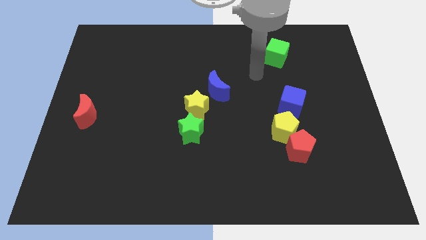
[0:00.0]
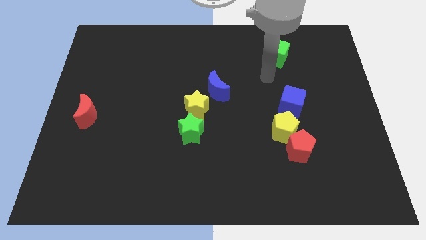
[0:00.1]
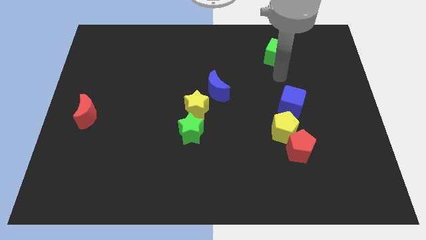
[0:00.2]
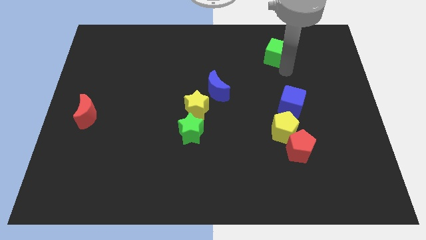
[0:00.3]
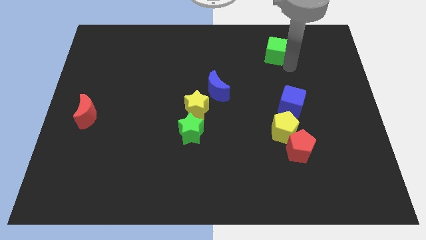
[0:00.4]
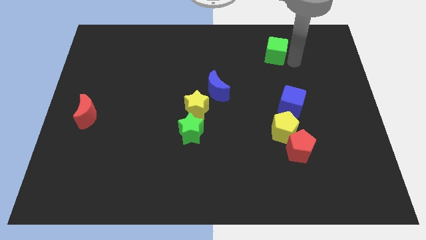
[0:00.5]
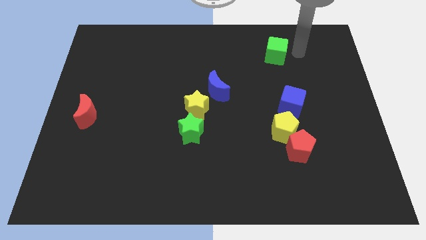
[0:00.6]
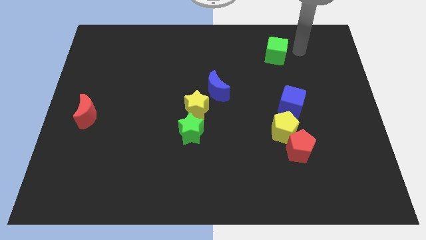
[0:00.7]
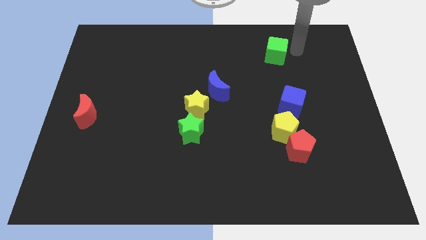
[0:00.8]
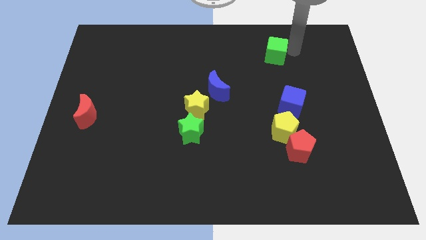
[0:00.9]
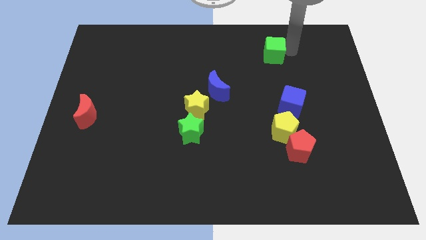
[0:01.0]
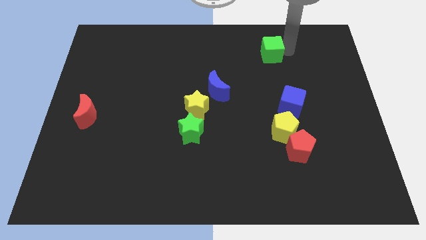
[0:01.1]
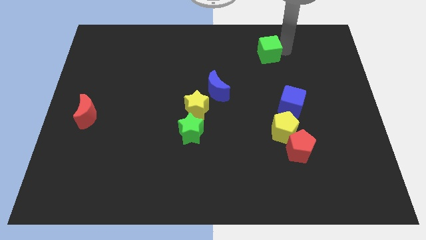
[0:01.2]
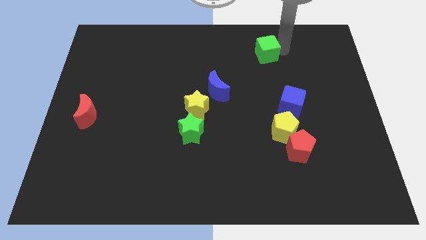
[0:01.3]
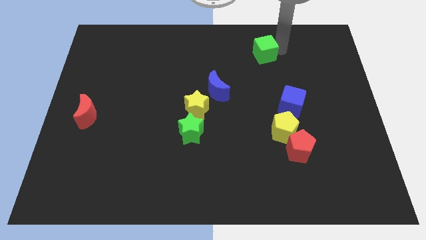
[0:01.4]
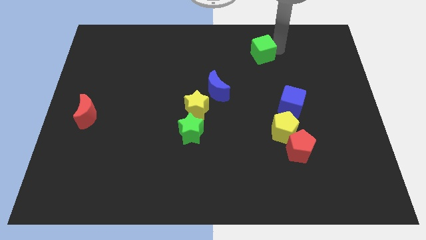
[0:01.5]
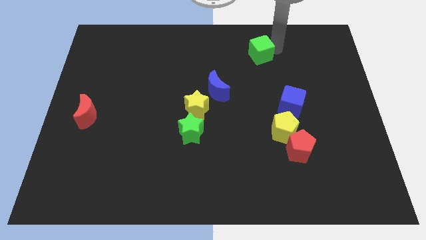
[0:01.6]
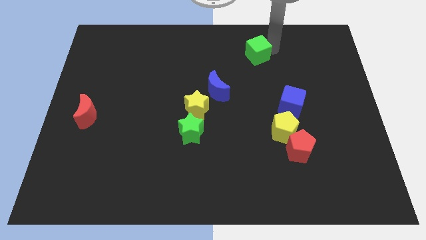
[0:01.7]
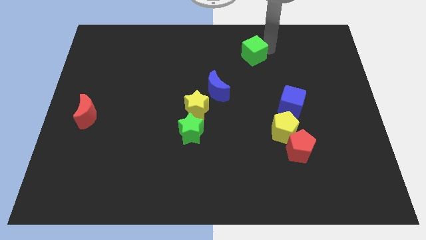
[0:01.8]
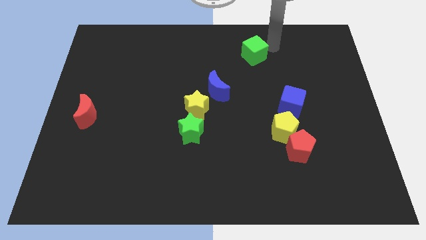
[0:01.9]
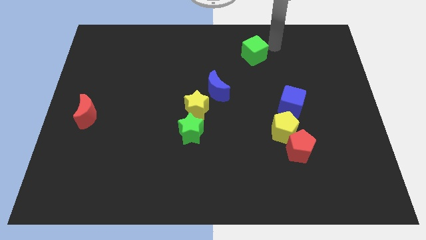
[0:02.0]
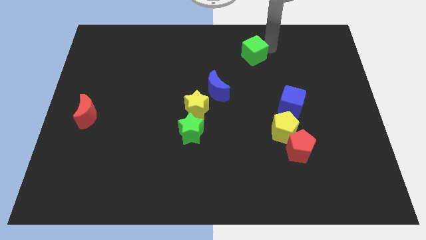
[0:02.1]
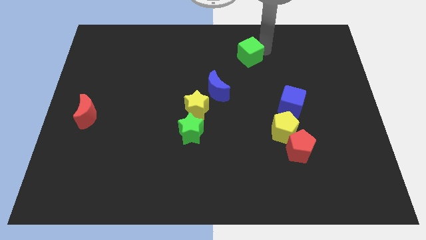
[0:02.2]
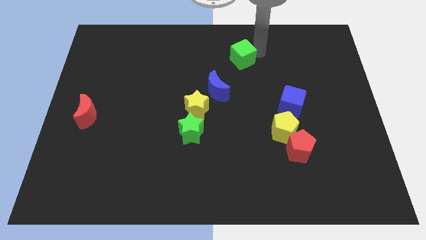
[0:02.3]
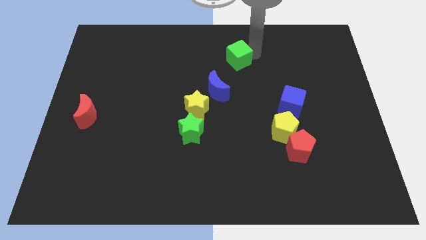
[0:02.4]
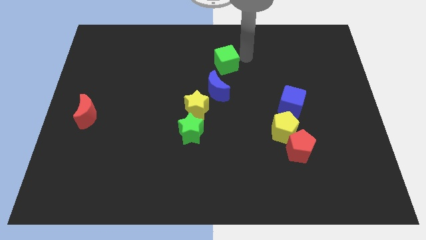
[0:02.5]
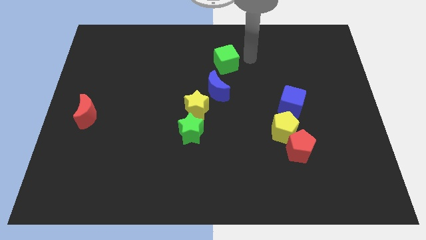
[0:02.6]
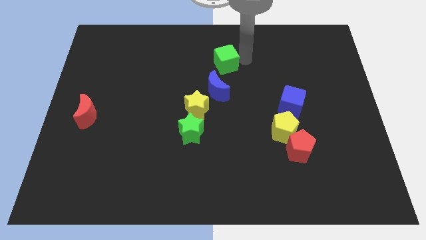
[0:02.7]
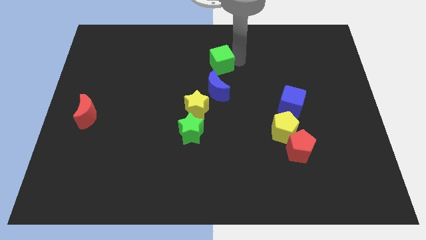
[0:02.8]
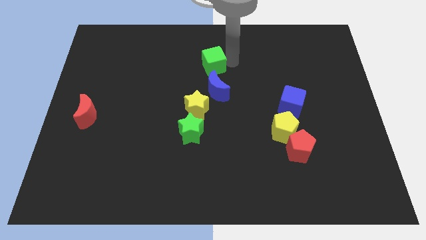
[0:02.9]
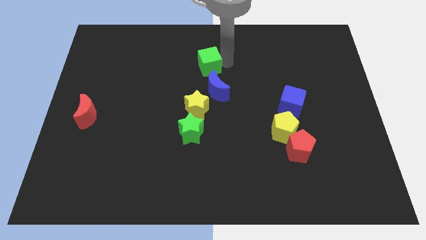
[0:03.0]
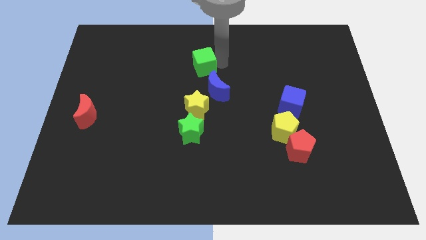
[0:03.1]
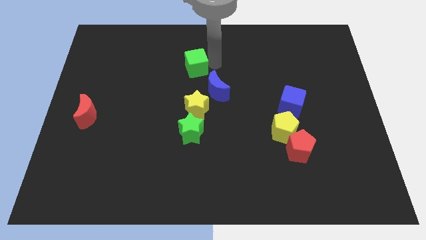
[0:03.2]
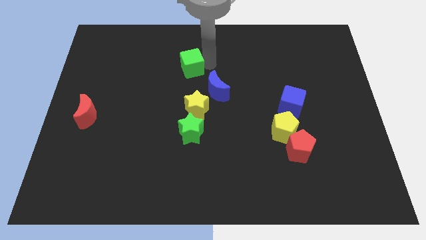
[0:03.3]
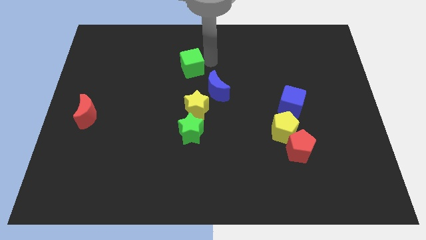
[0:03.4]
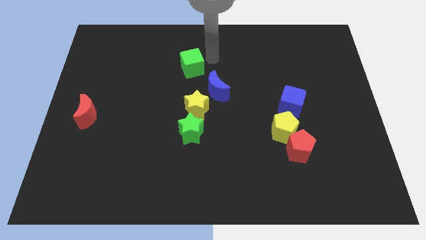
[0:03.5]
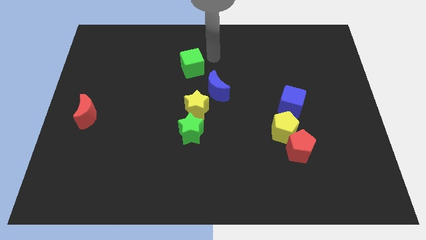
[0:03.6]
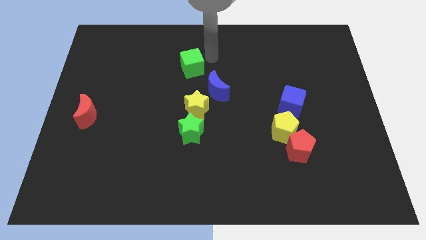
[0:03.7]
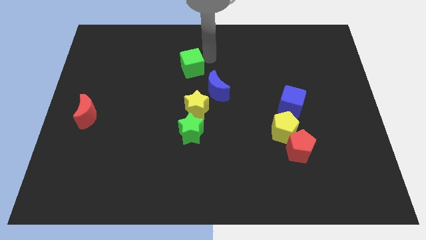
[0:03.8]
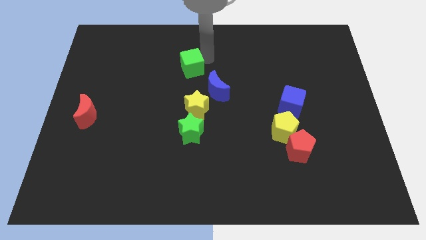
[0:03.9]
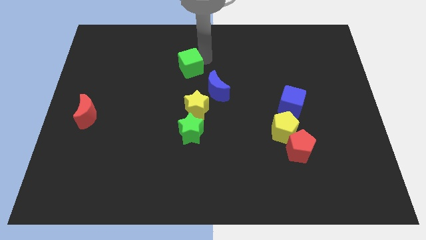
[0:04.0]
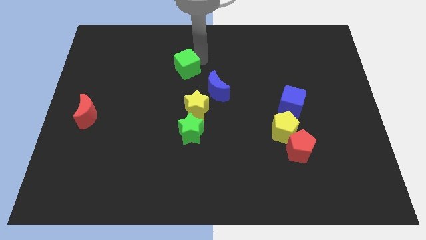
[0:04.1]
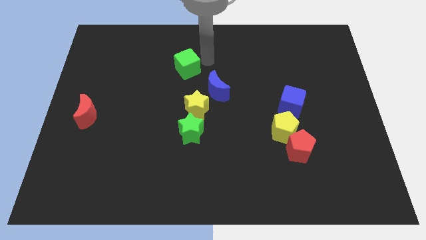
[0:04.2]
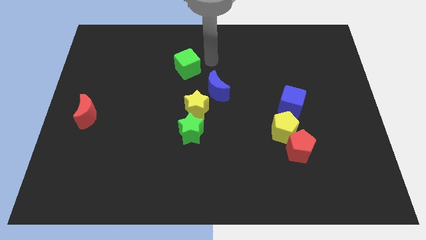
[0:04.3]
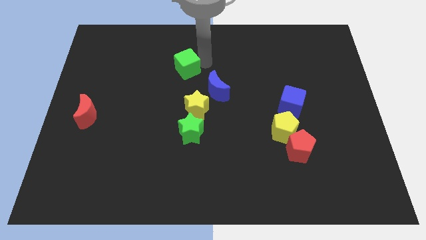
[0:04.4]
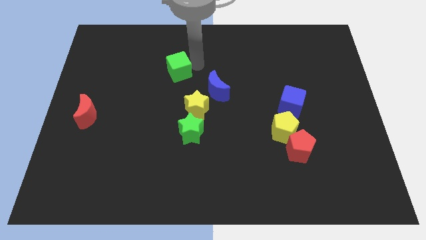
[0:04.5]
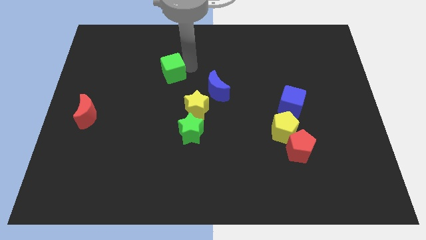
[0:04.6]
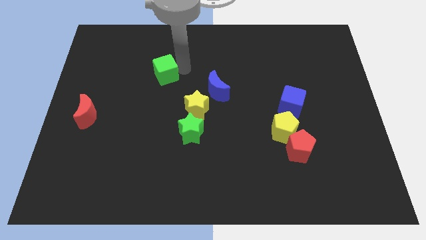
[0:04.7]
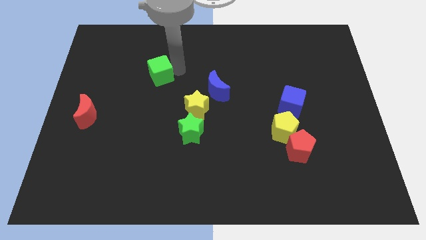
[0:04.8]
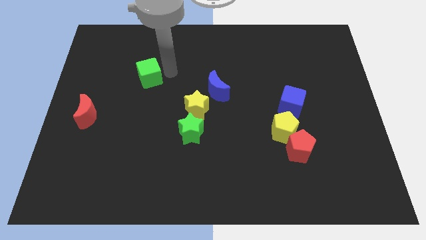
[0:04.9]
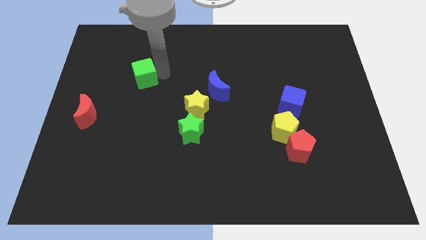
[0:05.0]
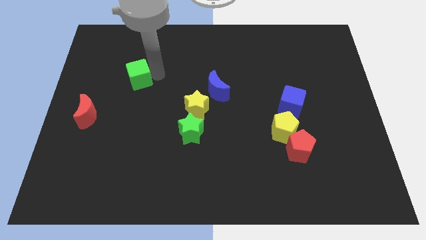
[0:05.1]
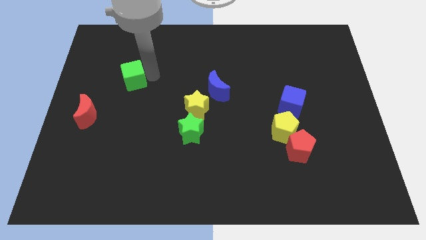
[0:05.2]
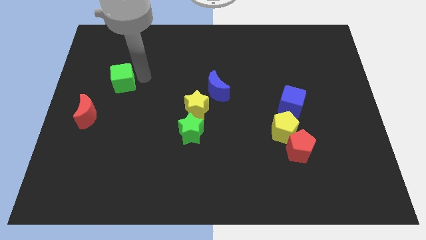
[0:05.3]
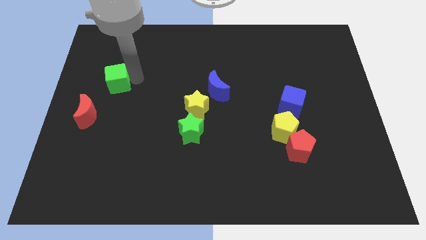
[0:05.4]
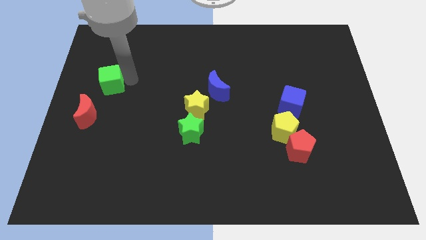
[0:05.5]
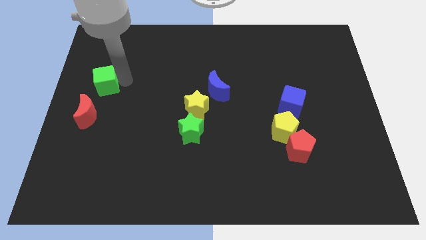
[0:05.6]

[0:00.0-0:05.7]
slide the green cube to the left side

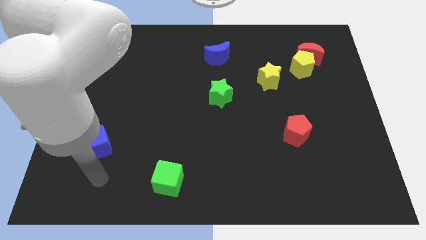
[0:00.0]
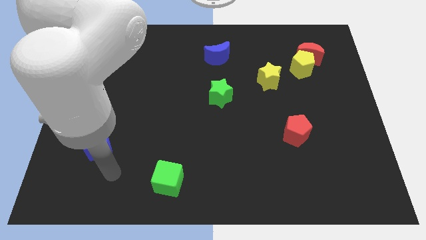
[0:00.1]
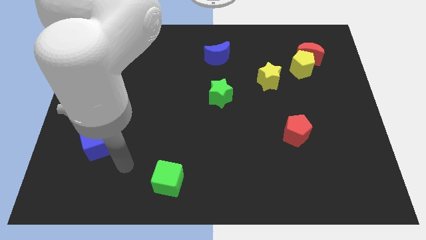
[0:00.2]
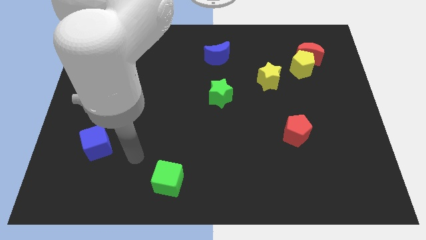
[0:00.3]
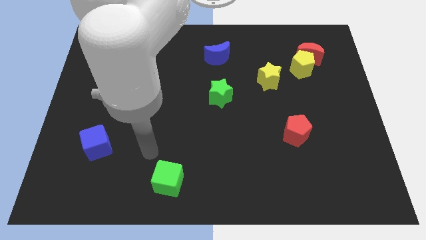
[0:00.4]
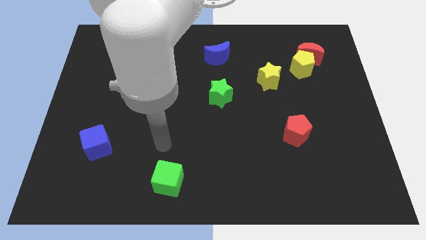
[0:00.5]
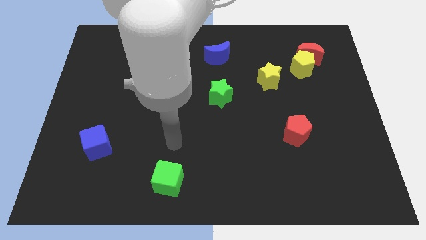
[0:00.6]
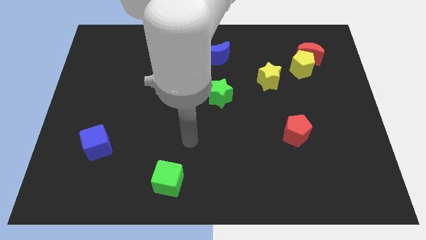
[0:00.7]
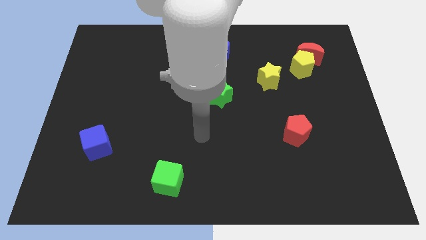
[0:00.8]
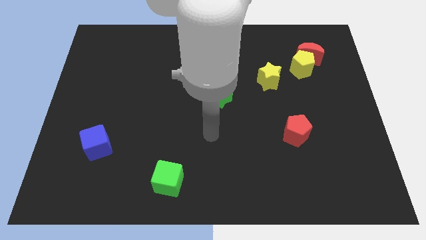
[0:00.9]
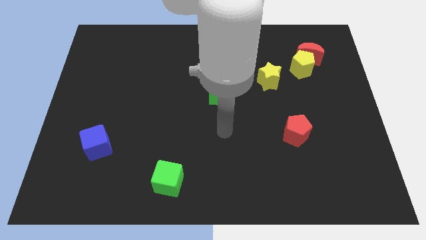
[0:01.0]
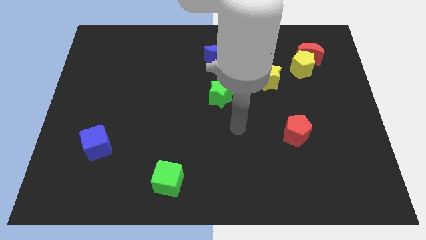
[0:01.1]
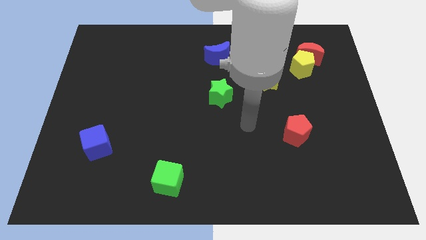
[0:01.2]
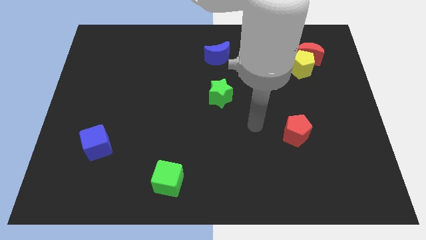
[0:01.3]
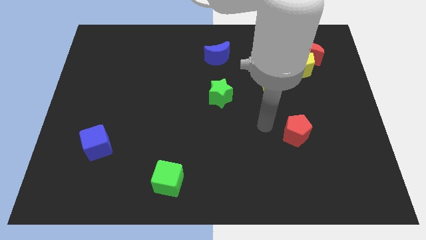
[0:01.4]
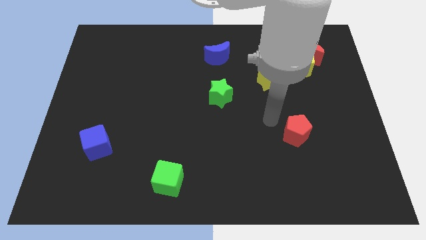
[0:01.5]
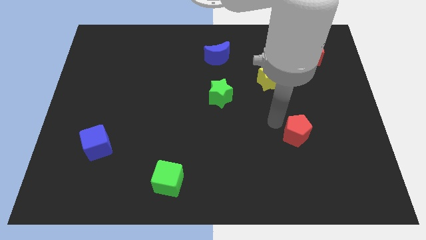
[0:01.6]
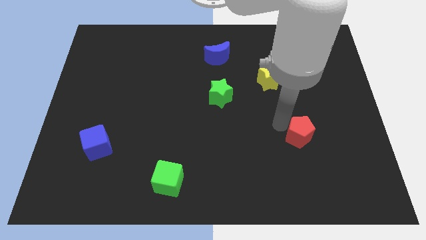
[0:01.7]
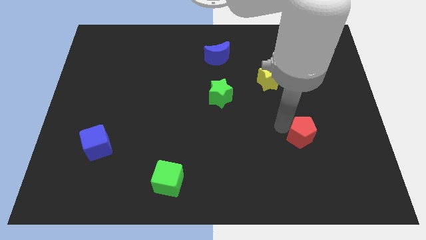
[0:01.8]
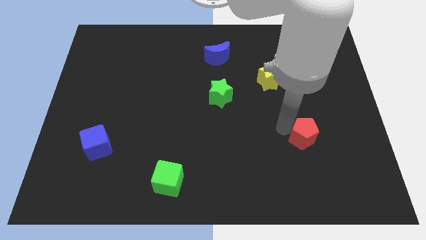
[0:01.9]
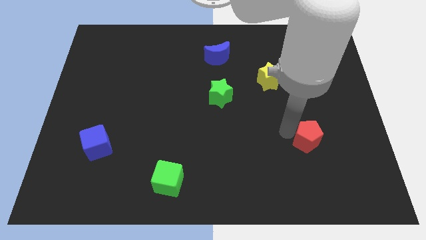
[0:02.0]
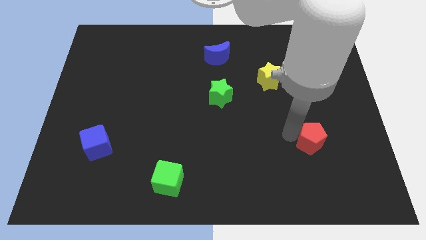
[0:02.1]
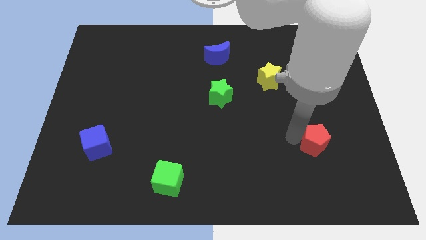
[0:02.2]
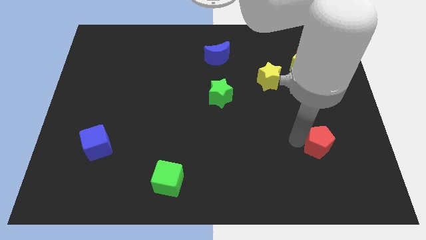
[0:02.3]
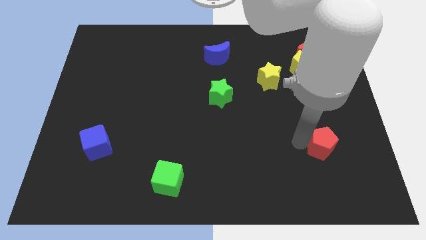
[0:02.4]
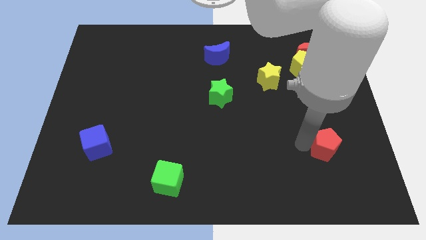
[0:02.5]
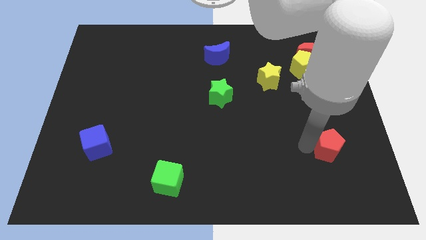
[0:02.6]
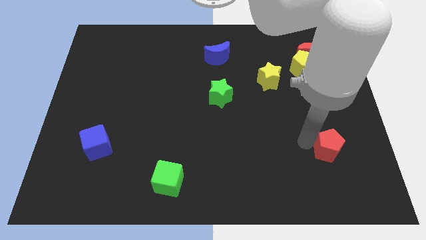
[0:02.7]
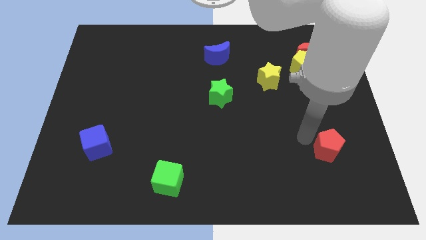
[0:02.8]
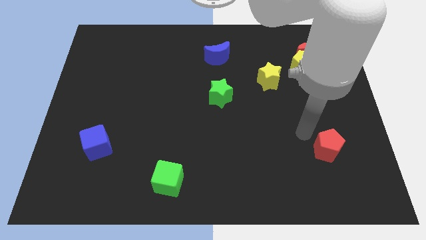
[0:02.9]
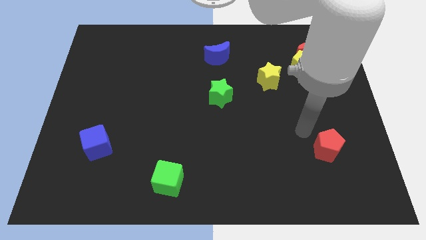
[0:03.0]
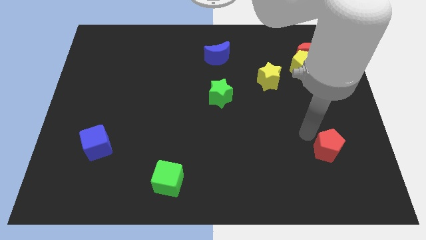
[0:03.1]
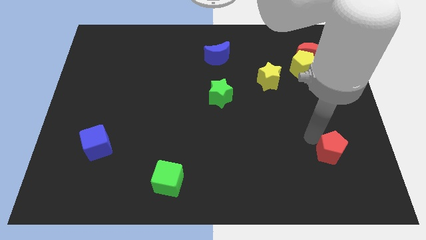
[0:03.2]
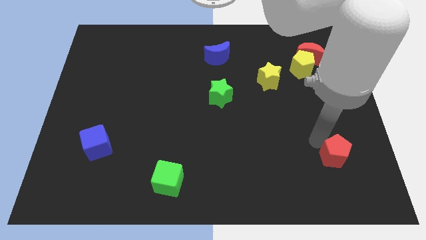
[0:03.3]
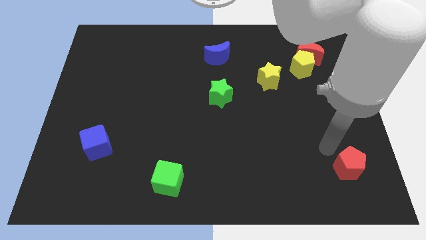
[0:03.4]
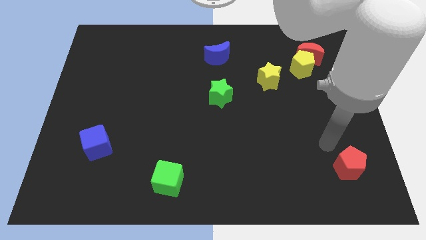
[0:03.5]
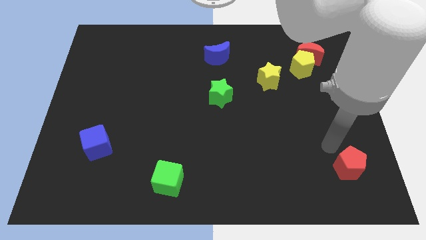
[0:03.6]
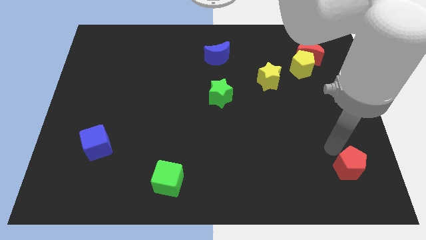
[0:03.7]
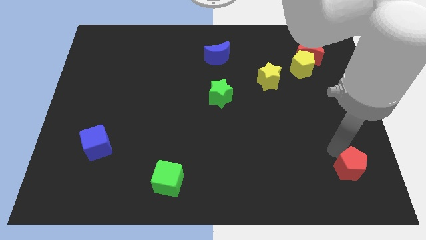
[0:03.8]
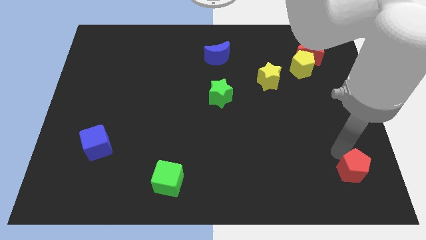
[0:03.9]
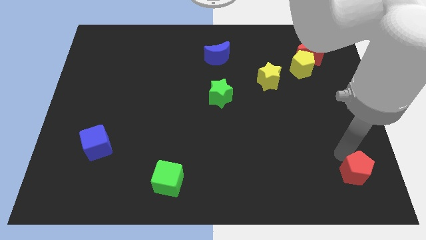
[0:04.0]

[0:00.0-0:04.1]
put the red pentagon to the lower right corner
